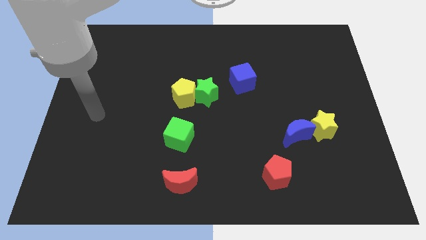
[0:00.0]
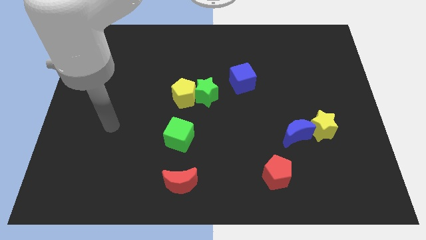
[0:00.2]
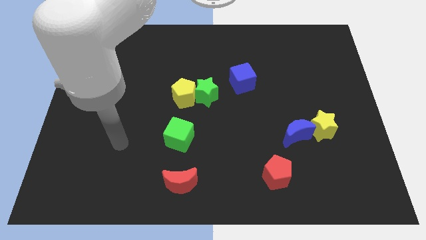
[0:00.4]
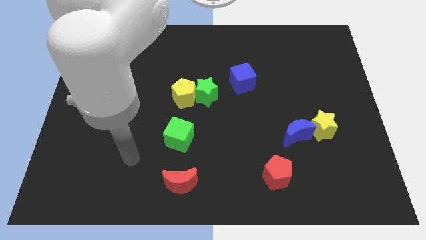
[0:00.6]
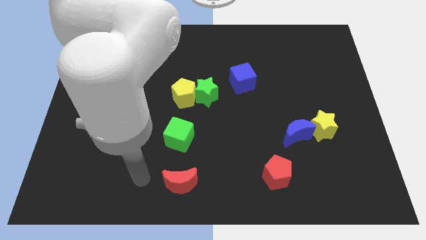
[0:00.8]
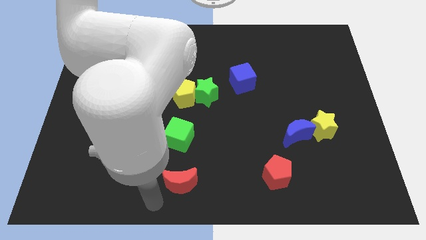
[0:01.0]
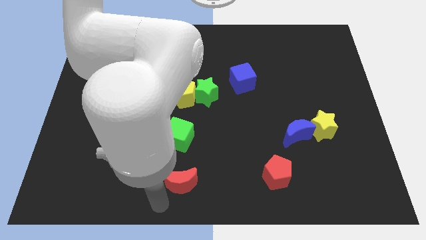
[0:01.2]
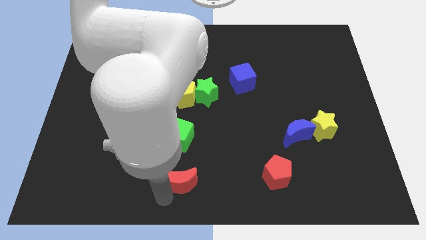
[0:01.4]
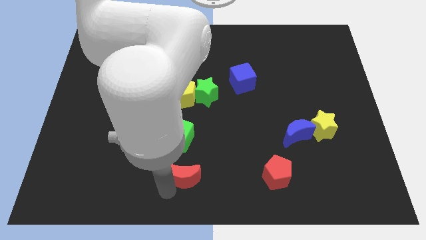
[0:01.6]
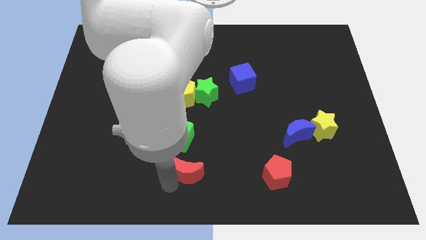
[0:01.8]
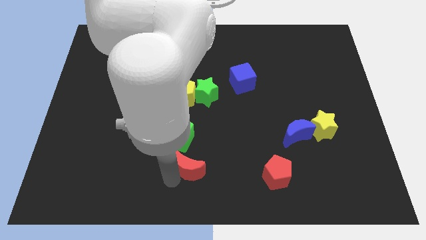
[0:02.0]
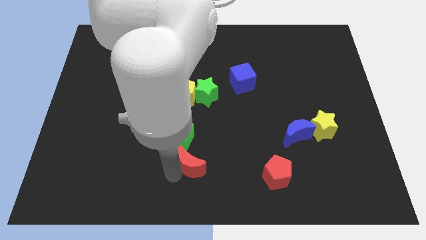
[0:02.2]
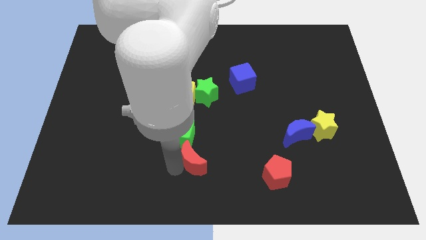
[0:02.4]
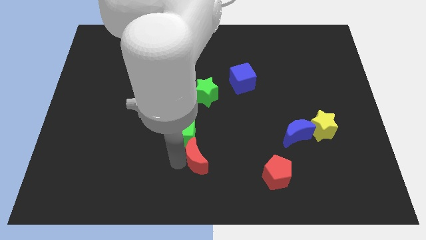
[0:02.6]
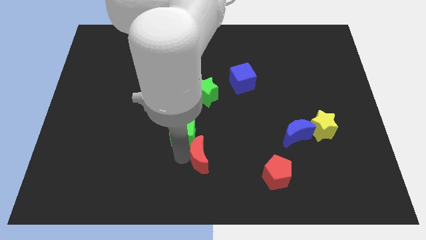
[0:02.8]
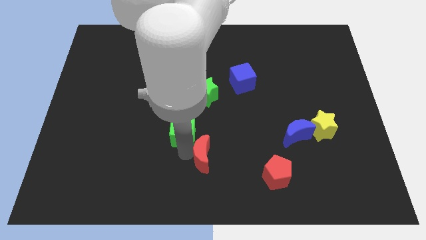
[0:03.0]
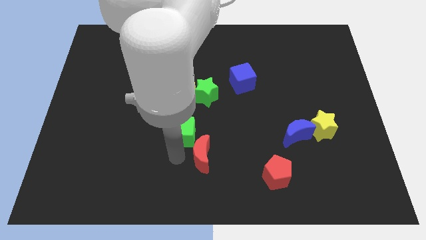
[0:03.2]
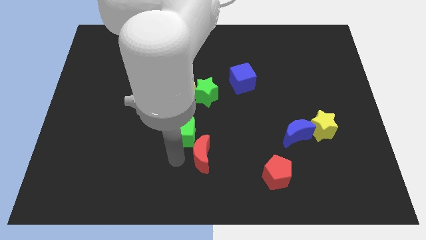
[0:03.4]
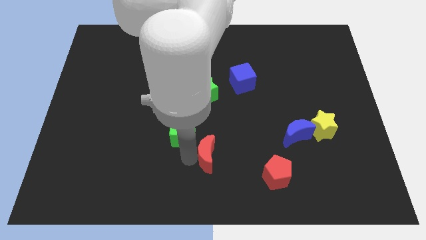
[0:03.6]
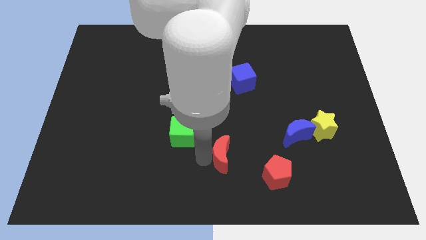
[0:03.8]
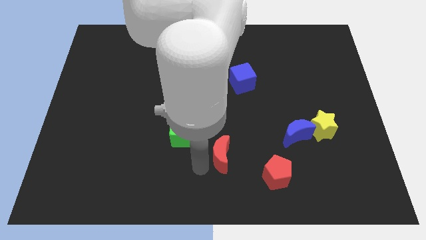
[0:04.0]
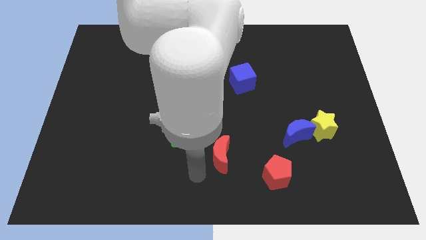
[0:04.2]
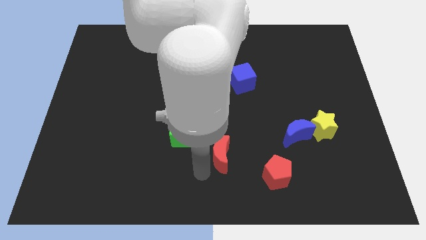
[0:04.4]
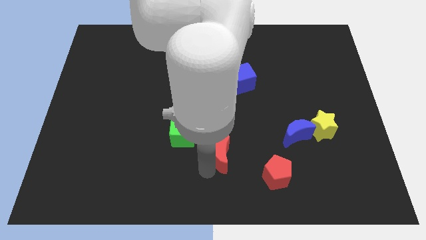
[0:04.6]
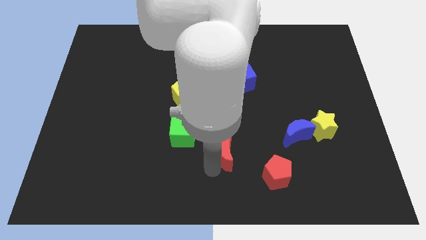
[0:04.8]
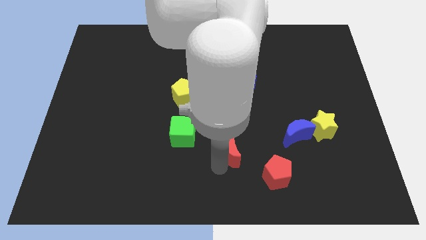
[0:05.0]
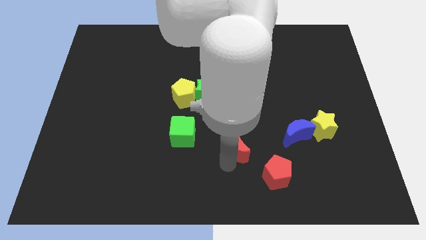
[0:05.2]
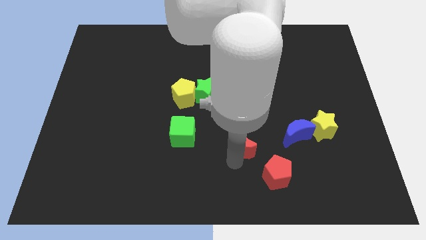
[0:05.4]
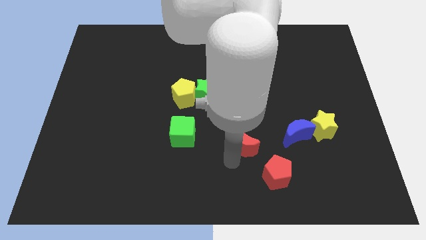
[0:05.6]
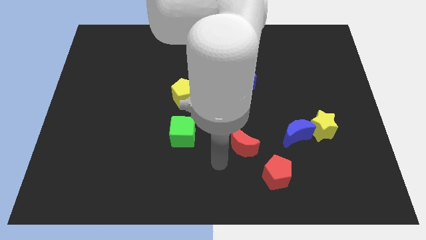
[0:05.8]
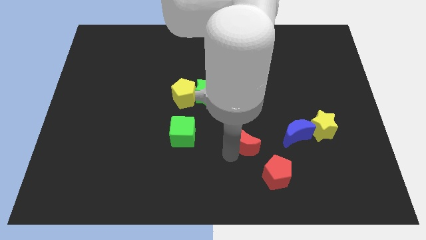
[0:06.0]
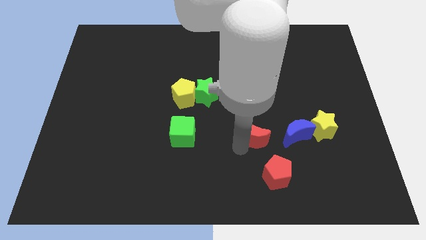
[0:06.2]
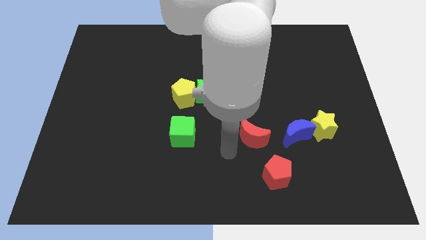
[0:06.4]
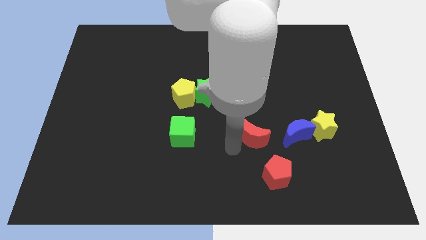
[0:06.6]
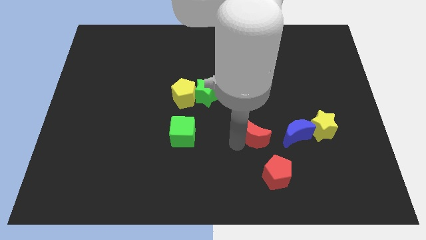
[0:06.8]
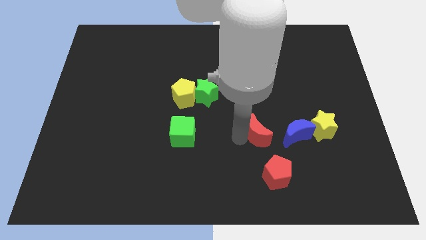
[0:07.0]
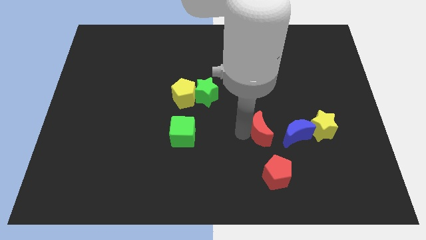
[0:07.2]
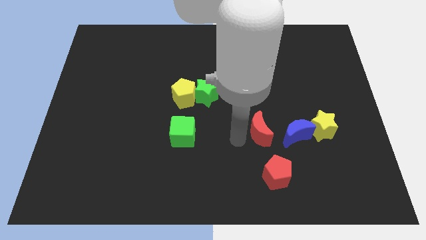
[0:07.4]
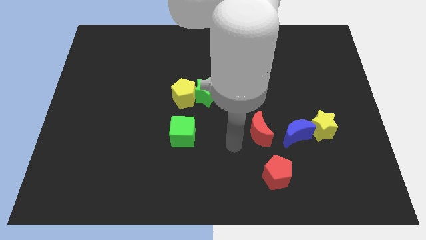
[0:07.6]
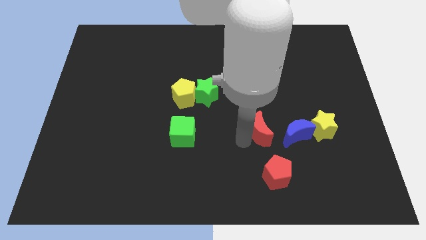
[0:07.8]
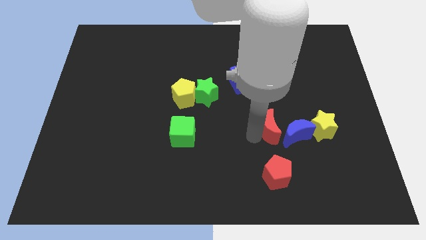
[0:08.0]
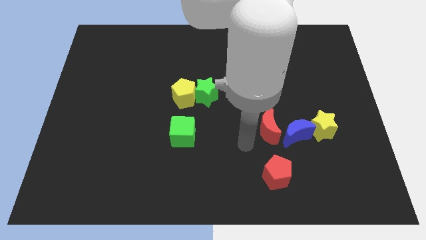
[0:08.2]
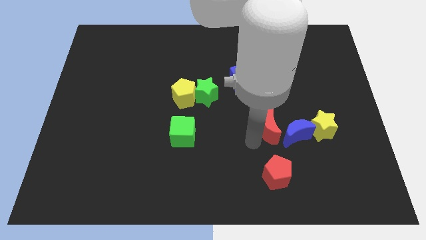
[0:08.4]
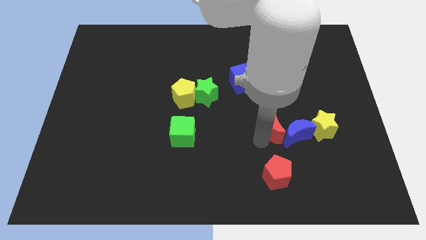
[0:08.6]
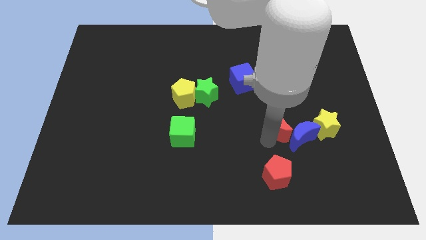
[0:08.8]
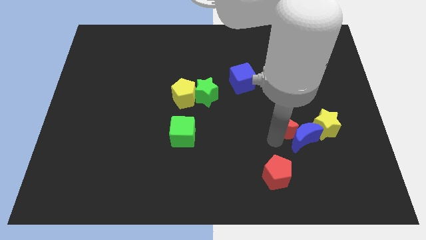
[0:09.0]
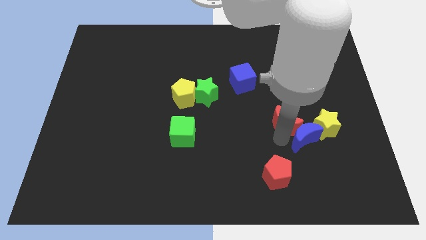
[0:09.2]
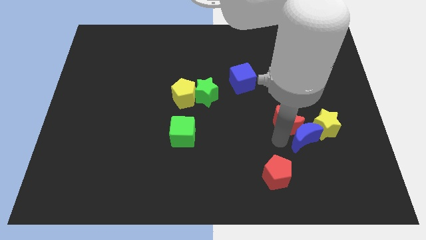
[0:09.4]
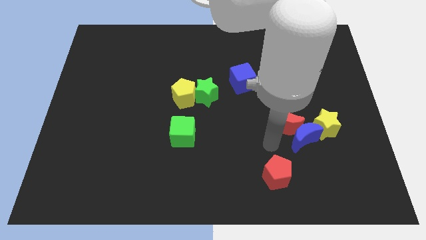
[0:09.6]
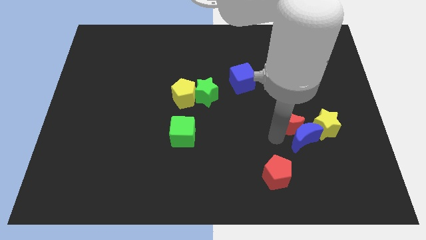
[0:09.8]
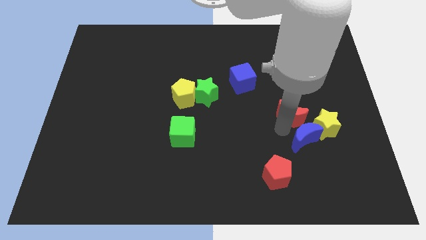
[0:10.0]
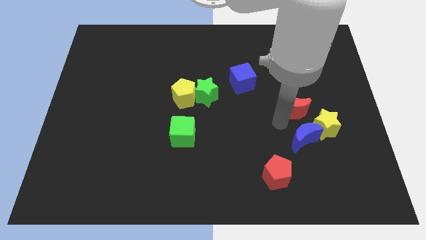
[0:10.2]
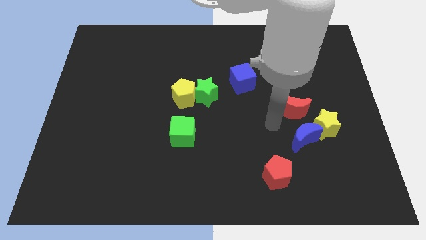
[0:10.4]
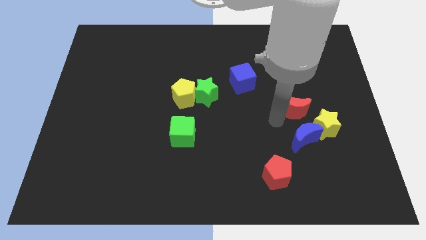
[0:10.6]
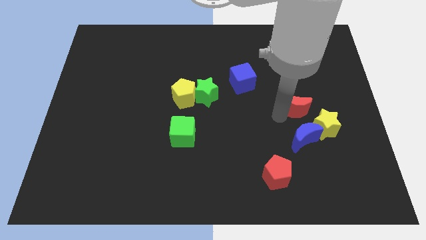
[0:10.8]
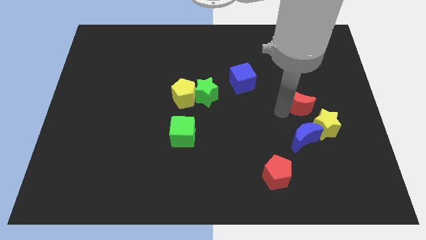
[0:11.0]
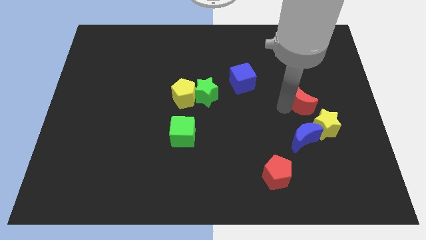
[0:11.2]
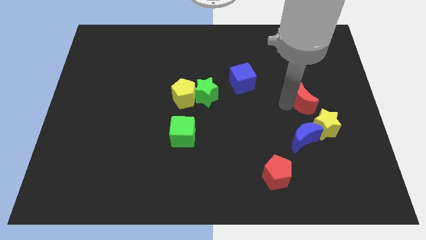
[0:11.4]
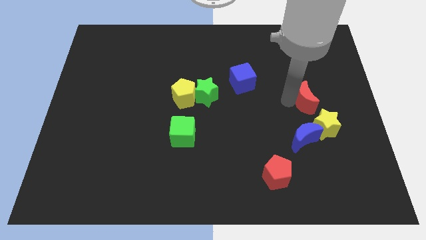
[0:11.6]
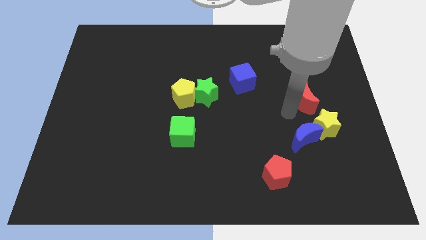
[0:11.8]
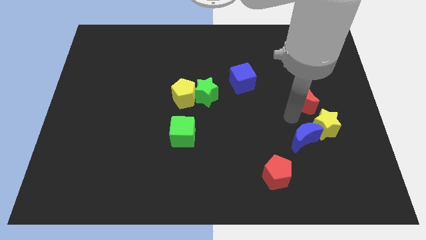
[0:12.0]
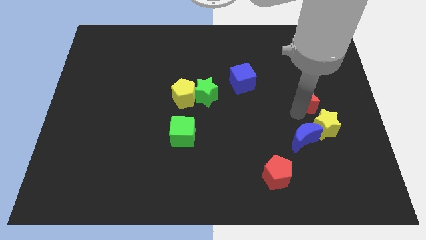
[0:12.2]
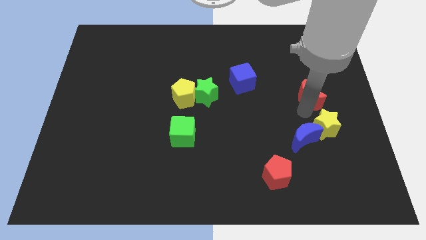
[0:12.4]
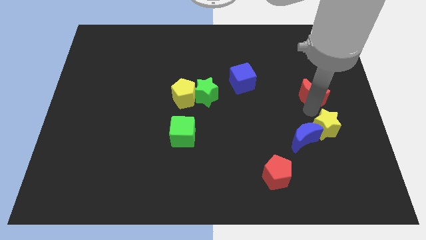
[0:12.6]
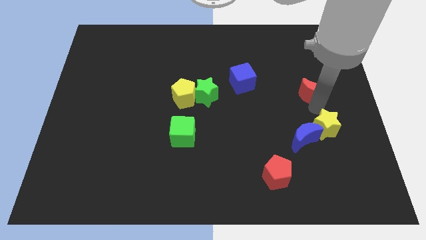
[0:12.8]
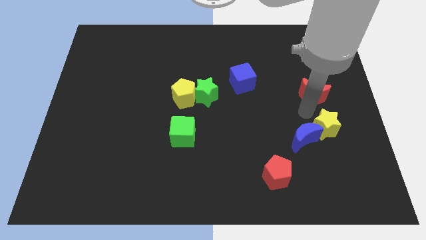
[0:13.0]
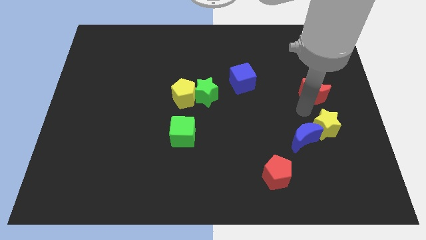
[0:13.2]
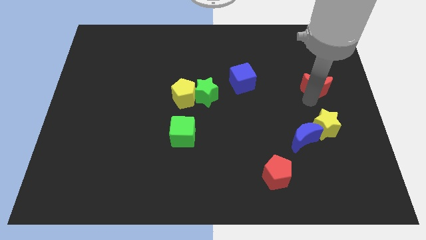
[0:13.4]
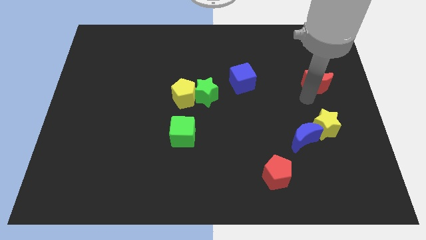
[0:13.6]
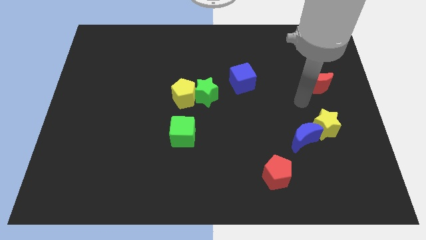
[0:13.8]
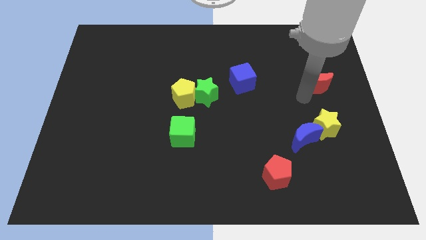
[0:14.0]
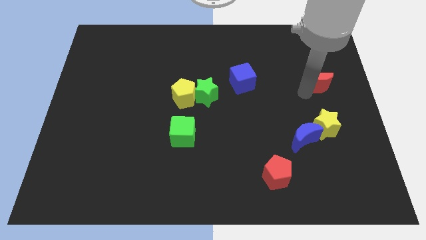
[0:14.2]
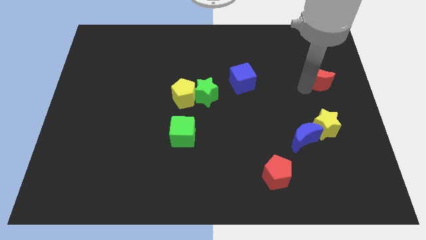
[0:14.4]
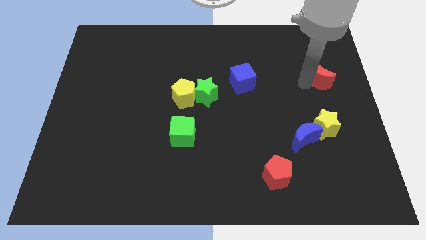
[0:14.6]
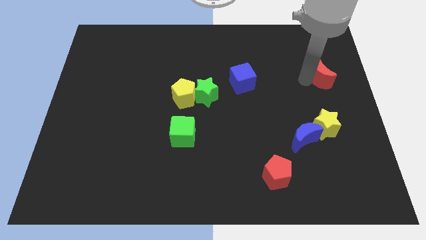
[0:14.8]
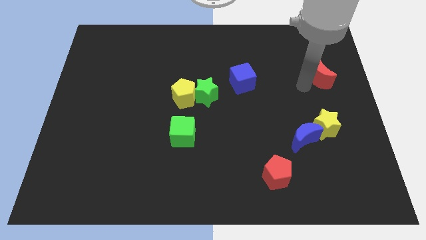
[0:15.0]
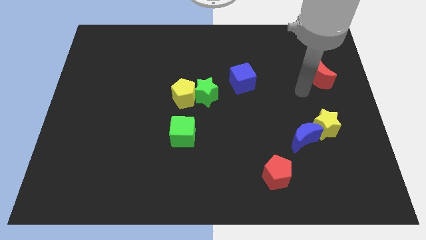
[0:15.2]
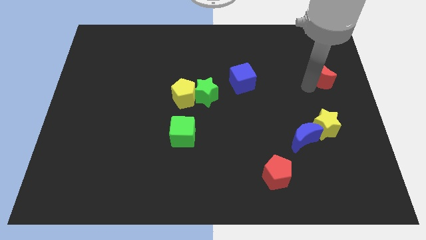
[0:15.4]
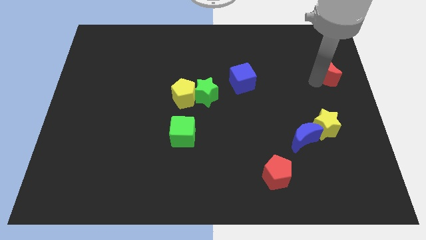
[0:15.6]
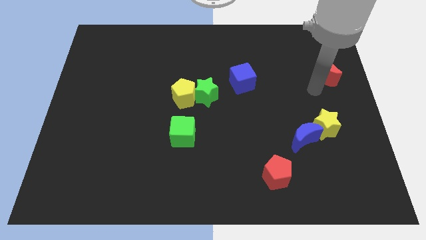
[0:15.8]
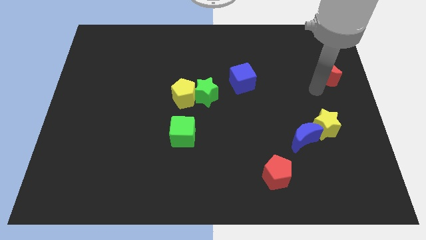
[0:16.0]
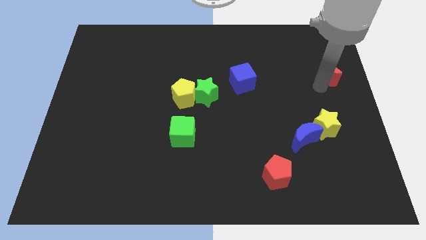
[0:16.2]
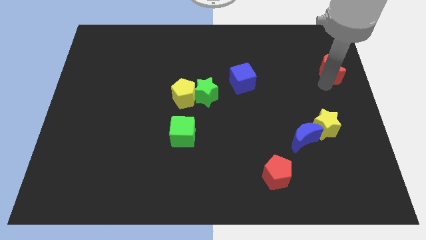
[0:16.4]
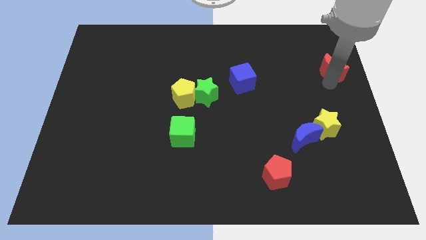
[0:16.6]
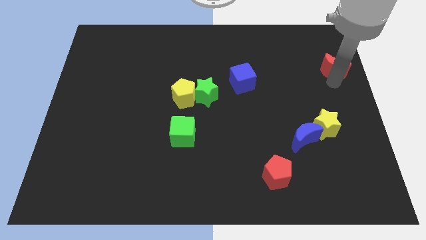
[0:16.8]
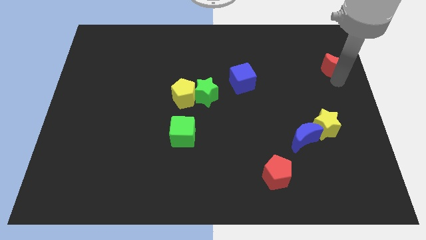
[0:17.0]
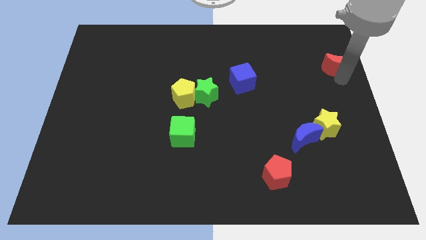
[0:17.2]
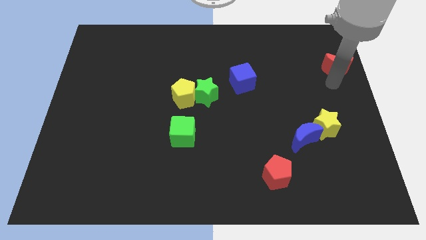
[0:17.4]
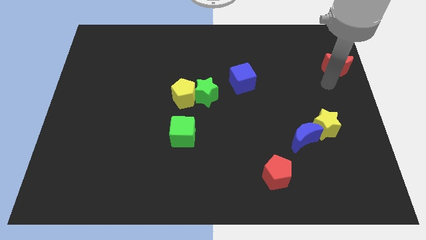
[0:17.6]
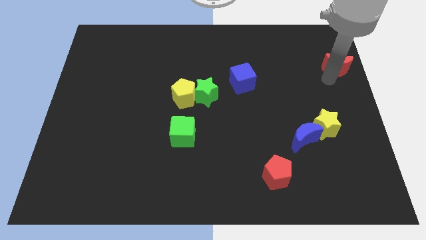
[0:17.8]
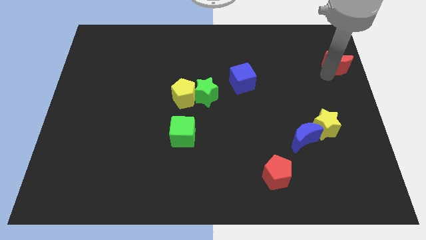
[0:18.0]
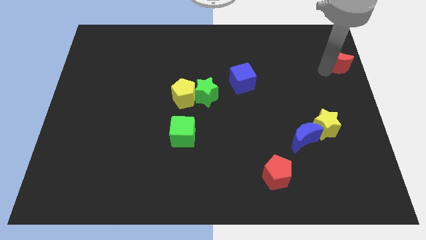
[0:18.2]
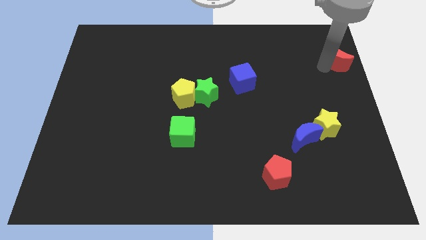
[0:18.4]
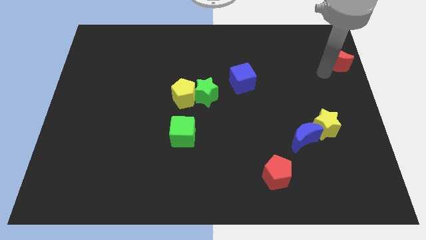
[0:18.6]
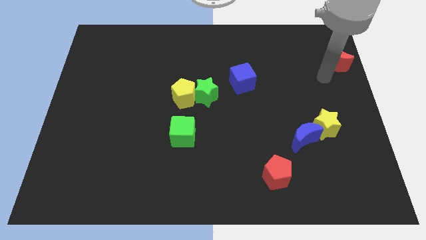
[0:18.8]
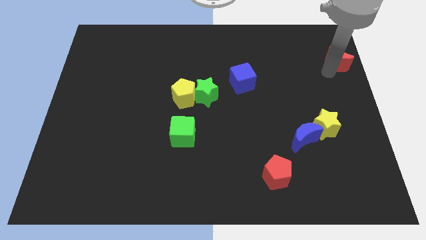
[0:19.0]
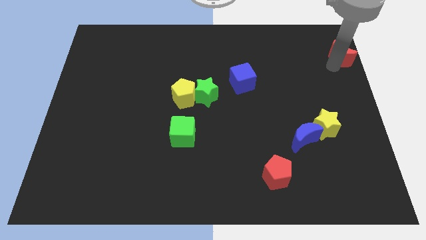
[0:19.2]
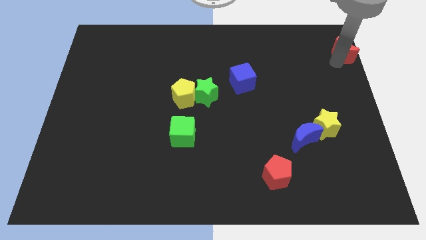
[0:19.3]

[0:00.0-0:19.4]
slide the red moon to the top right of the board
